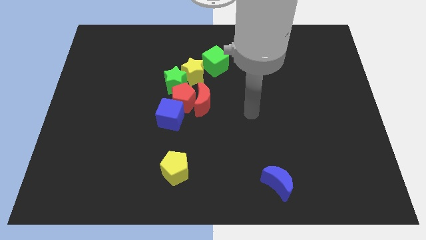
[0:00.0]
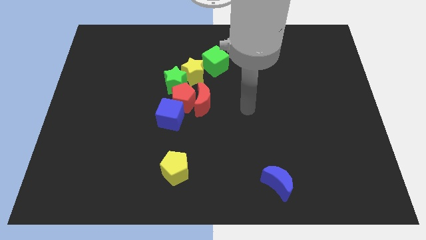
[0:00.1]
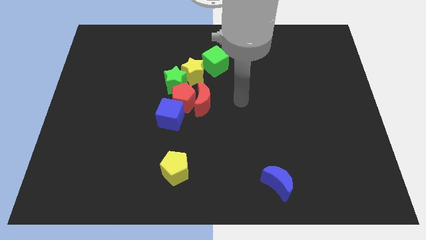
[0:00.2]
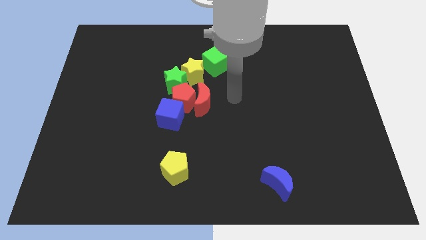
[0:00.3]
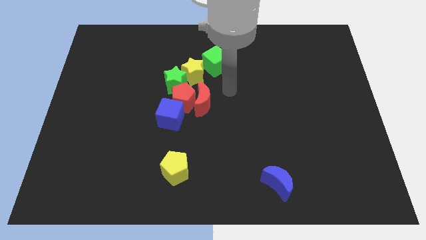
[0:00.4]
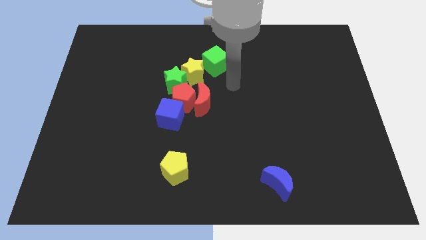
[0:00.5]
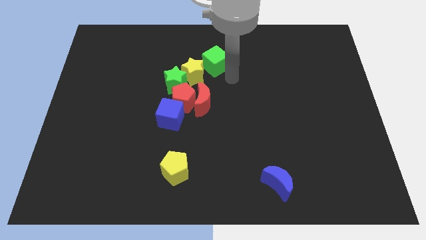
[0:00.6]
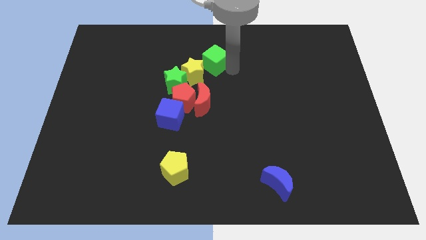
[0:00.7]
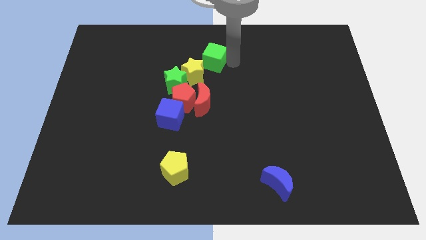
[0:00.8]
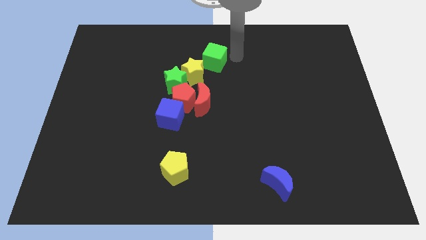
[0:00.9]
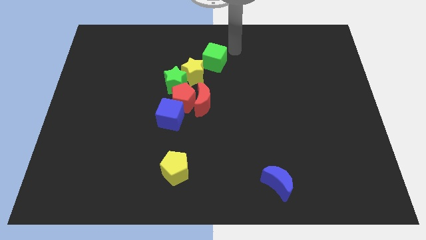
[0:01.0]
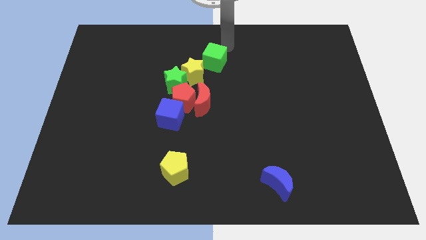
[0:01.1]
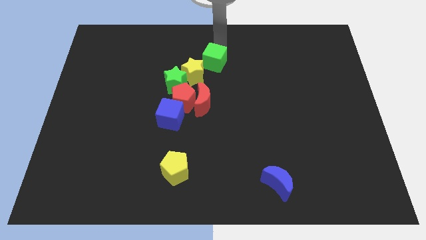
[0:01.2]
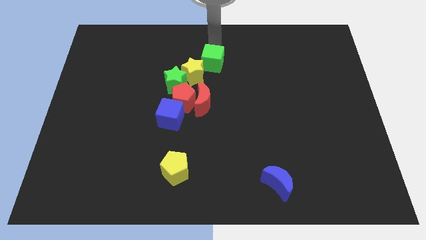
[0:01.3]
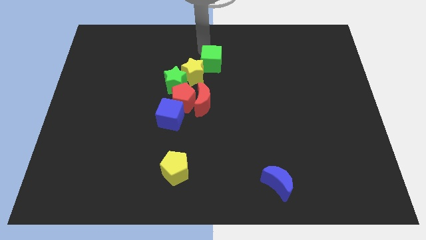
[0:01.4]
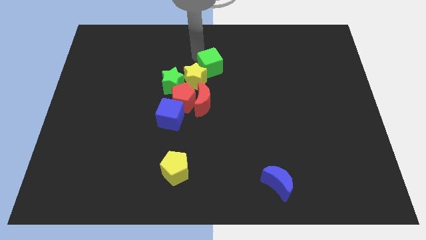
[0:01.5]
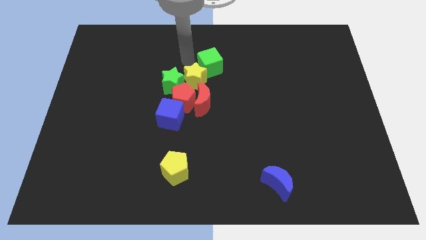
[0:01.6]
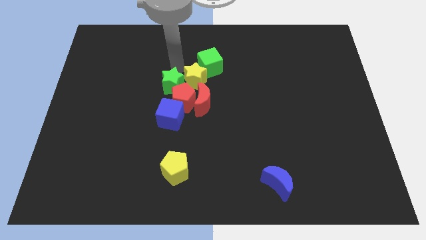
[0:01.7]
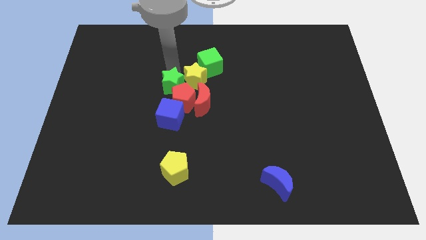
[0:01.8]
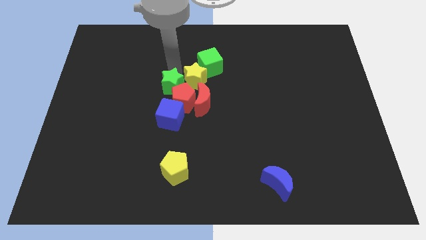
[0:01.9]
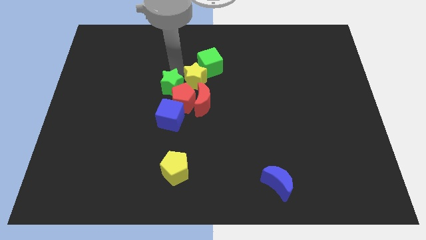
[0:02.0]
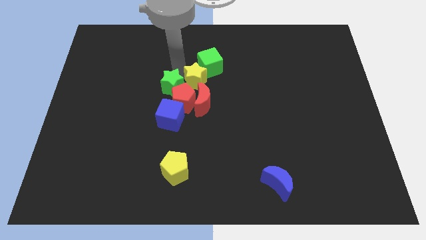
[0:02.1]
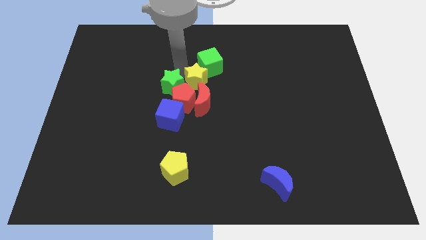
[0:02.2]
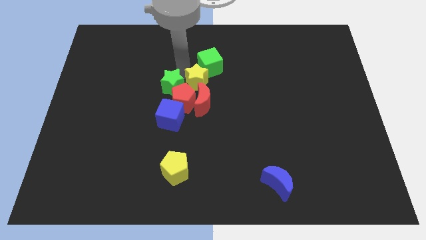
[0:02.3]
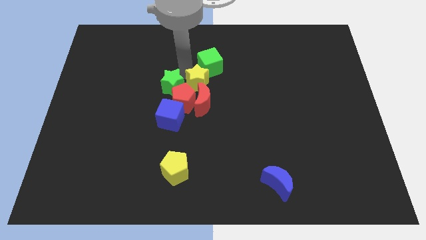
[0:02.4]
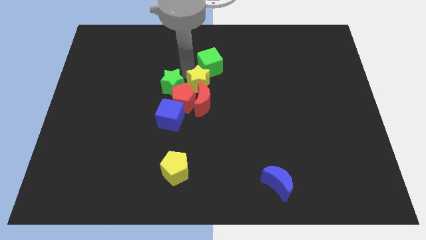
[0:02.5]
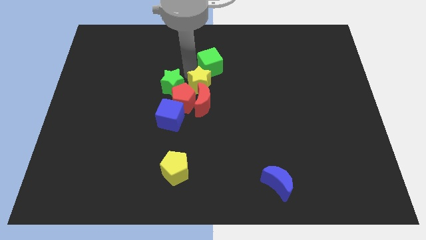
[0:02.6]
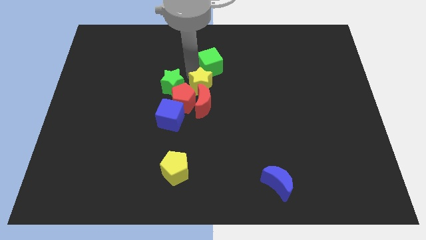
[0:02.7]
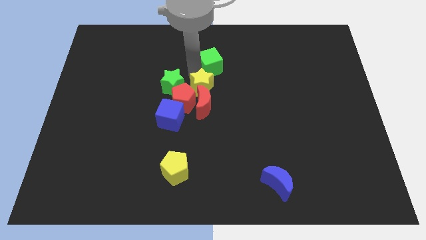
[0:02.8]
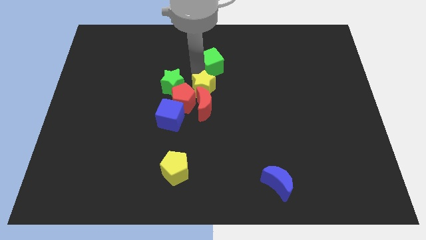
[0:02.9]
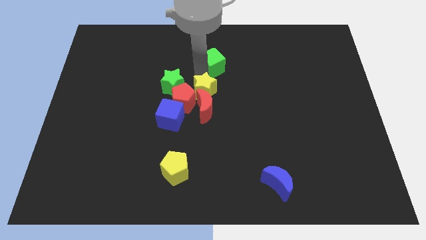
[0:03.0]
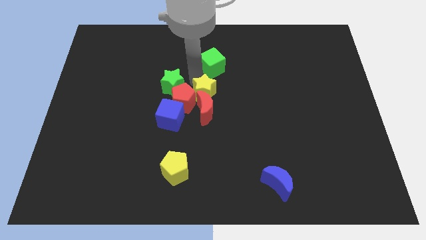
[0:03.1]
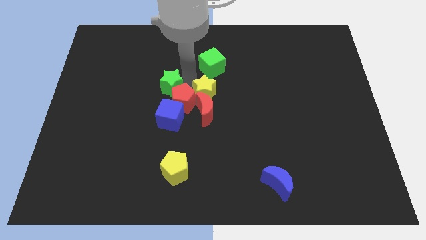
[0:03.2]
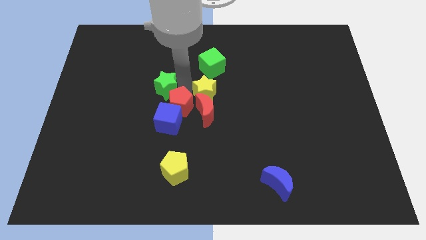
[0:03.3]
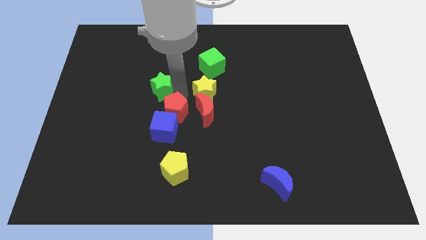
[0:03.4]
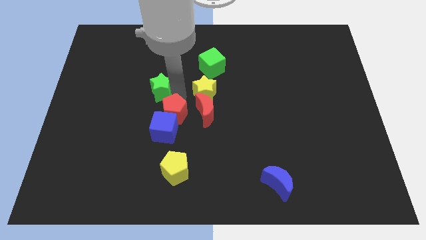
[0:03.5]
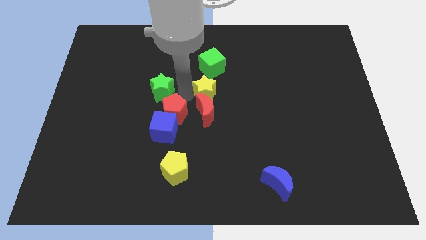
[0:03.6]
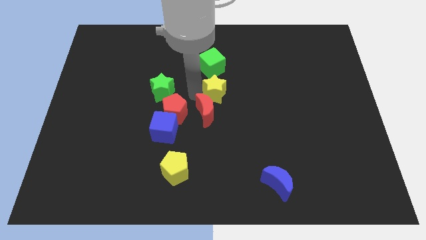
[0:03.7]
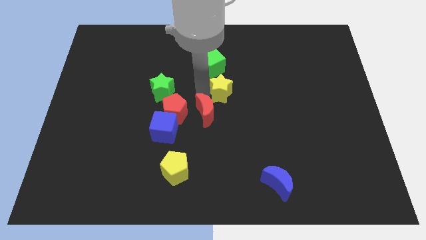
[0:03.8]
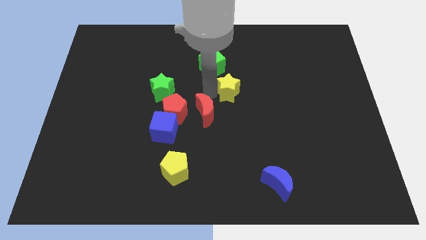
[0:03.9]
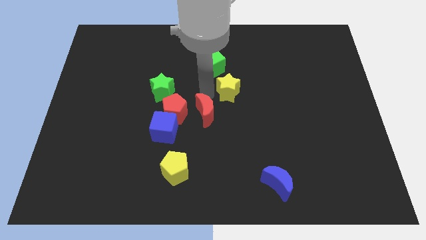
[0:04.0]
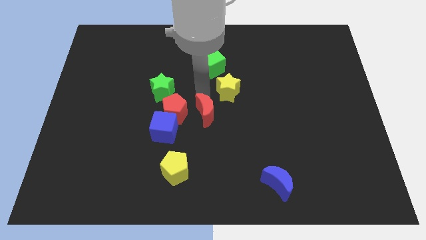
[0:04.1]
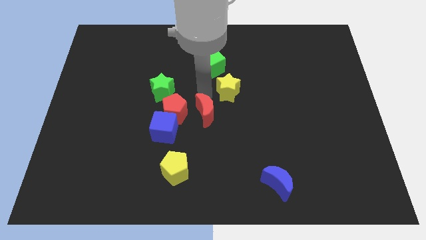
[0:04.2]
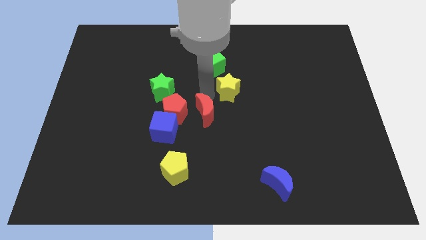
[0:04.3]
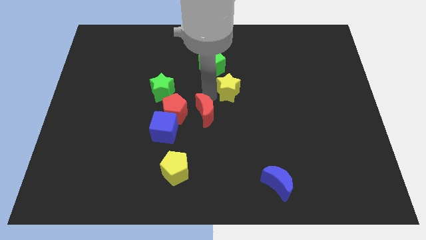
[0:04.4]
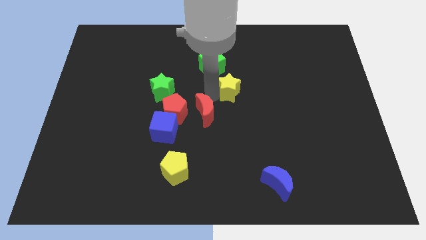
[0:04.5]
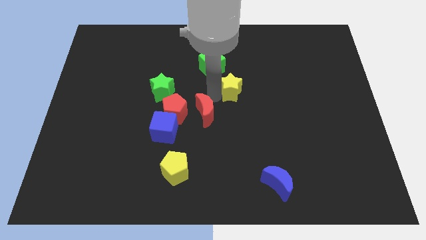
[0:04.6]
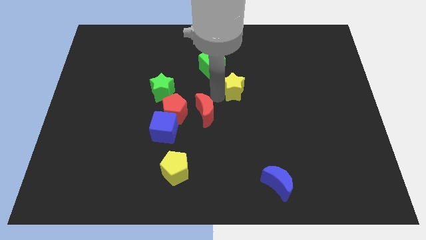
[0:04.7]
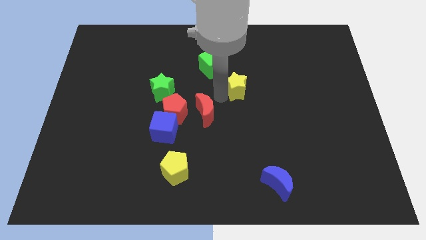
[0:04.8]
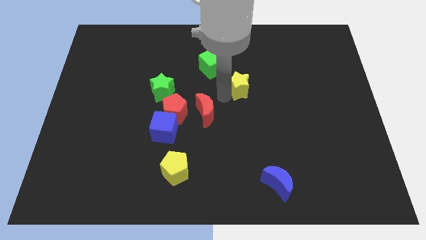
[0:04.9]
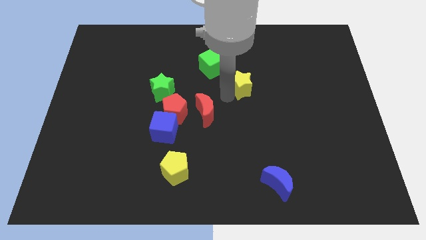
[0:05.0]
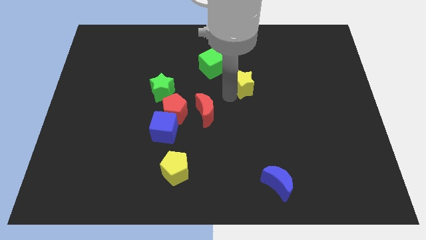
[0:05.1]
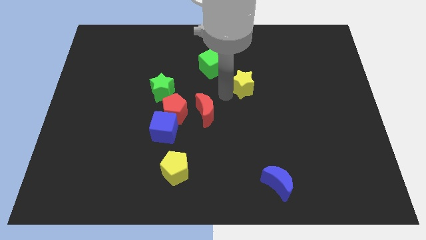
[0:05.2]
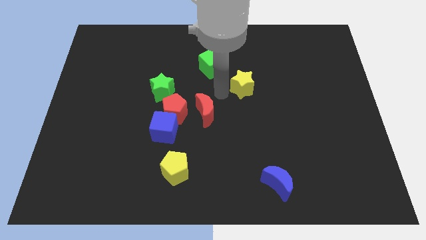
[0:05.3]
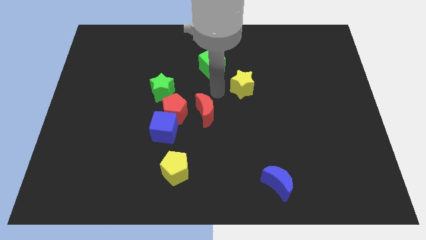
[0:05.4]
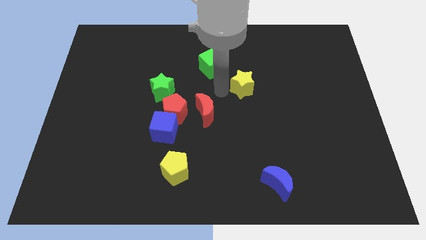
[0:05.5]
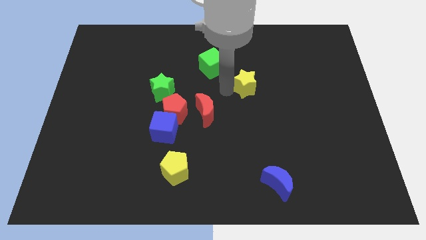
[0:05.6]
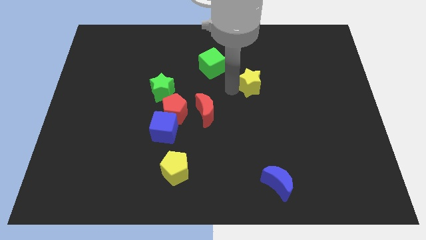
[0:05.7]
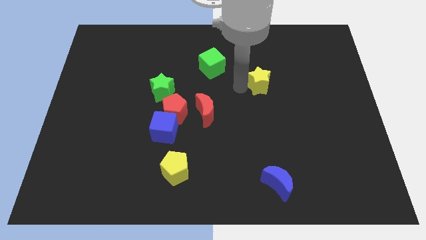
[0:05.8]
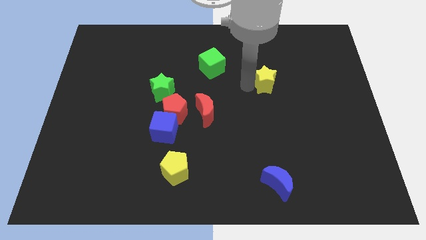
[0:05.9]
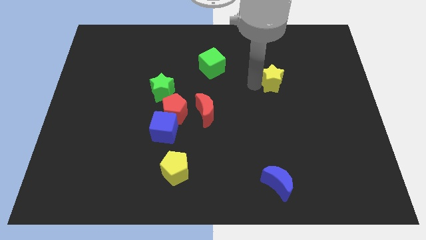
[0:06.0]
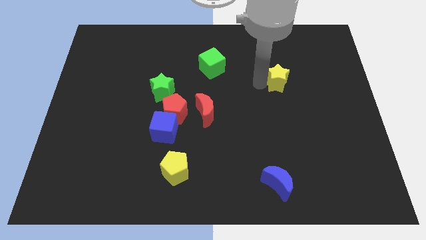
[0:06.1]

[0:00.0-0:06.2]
move the yellow star right

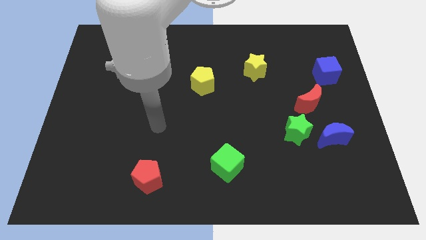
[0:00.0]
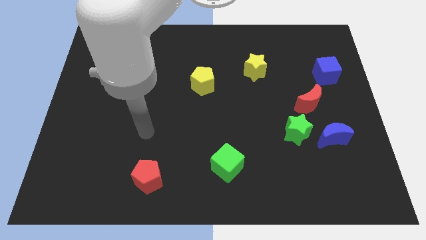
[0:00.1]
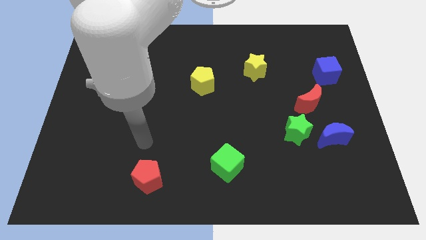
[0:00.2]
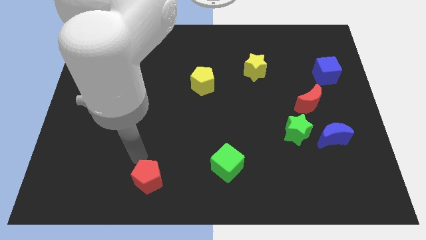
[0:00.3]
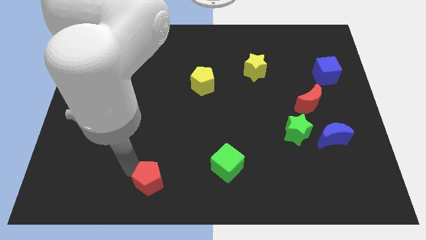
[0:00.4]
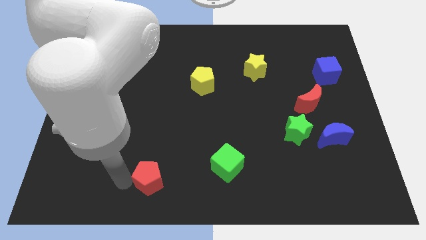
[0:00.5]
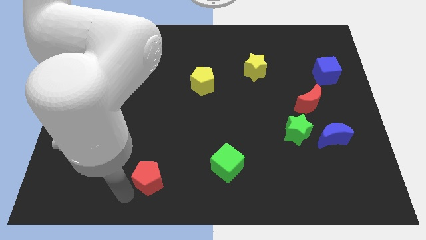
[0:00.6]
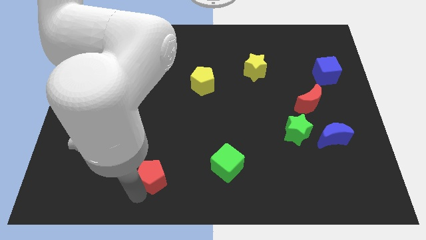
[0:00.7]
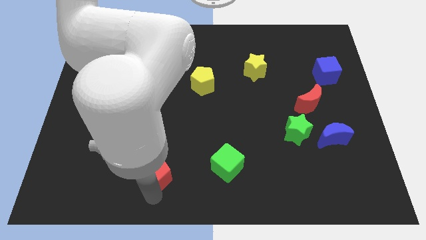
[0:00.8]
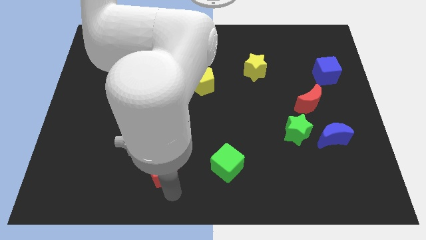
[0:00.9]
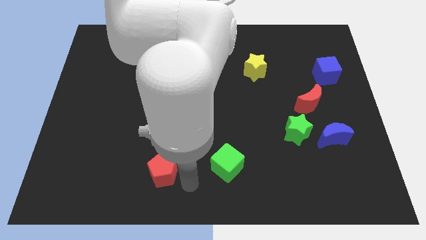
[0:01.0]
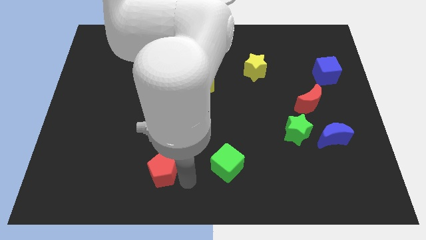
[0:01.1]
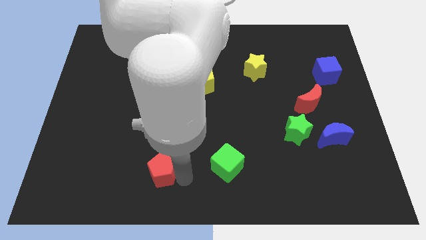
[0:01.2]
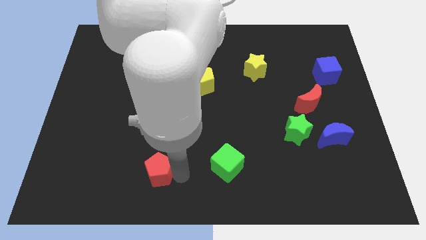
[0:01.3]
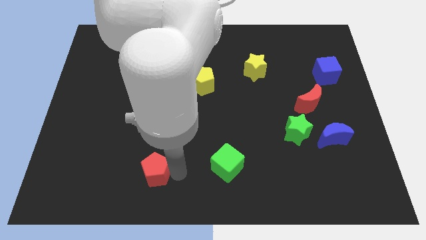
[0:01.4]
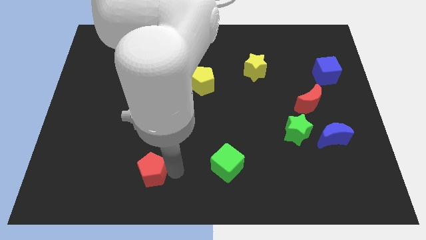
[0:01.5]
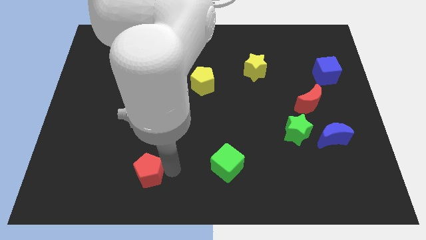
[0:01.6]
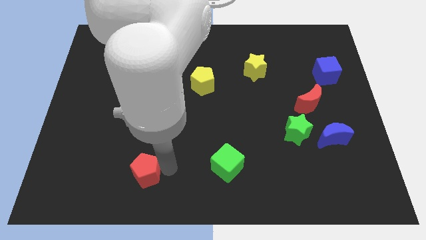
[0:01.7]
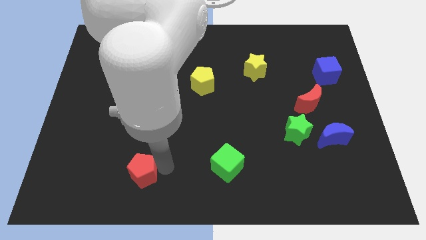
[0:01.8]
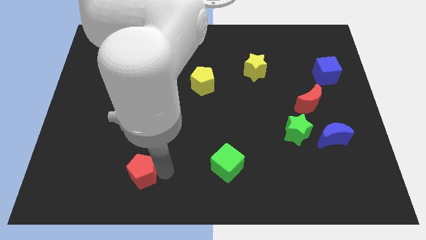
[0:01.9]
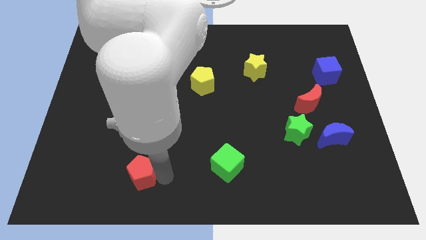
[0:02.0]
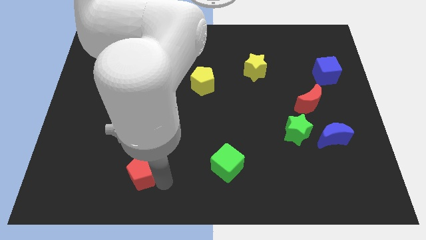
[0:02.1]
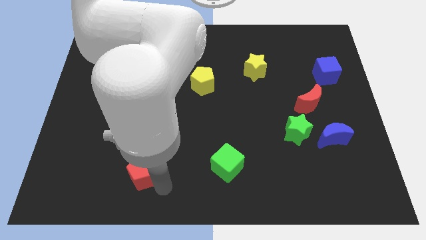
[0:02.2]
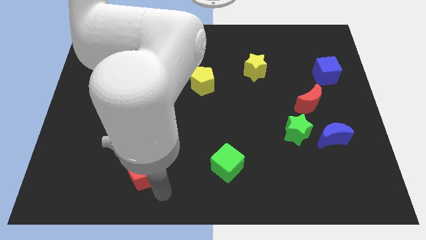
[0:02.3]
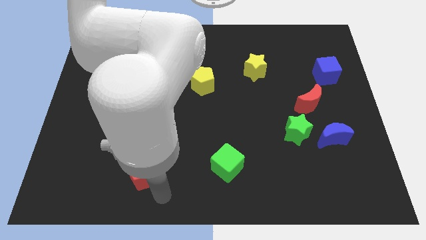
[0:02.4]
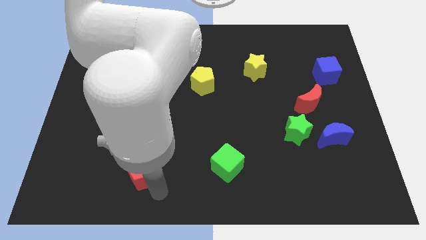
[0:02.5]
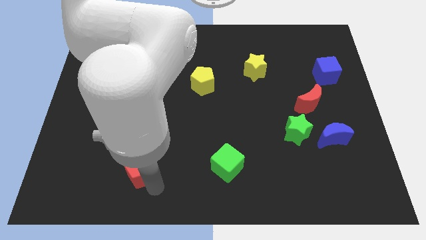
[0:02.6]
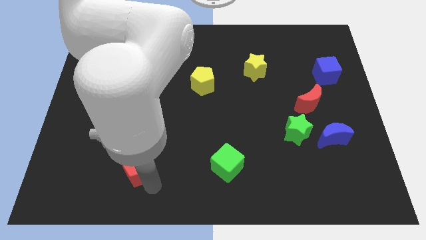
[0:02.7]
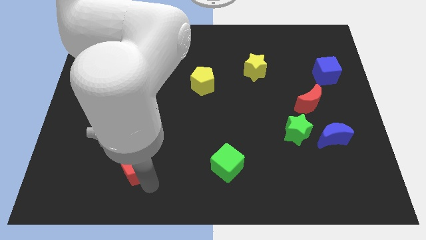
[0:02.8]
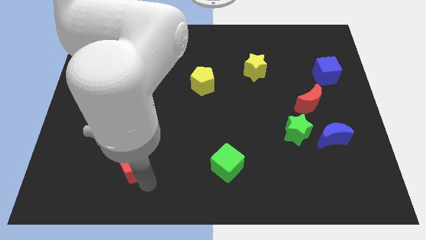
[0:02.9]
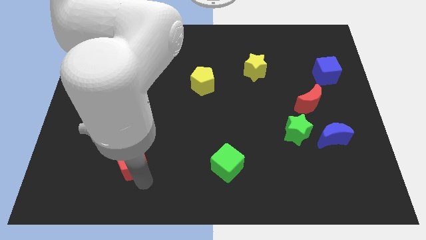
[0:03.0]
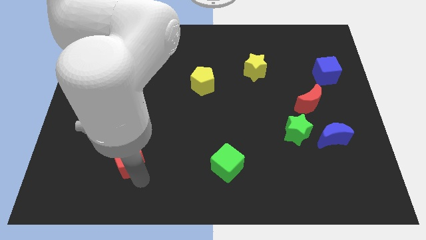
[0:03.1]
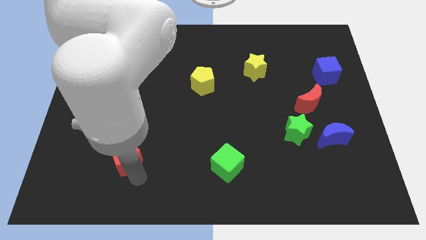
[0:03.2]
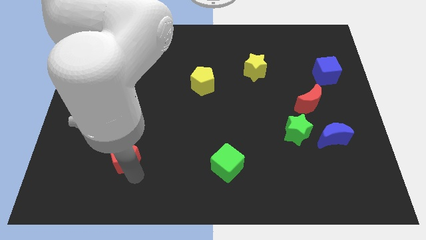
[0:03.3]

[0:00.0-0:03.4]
push the red pentagon slightly upwards and then left
